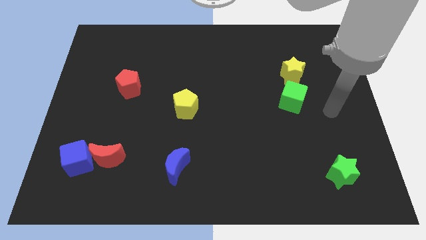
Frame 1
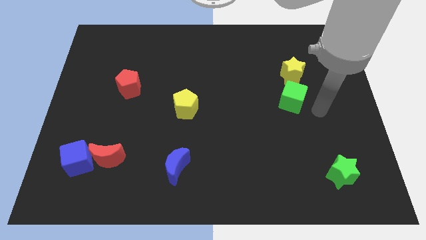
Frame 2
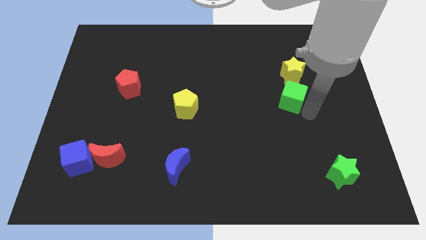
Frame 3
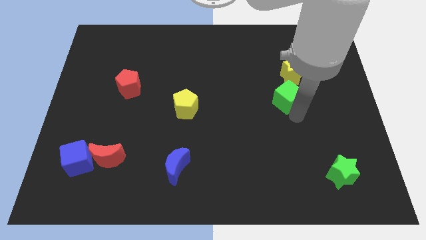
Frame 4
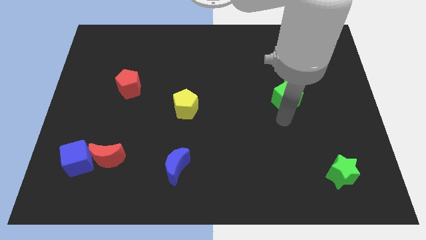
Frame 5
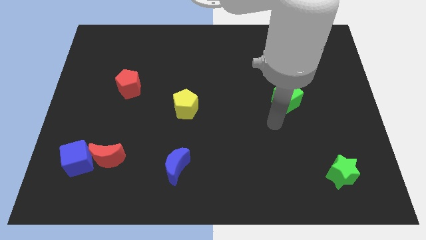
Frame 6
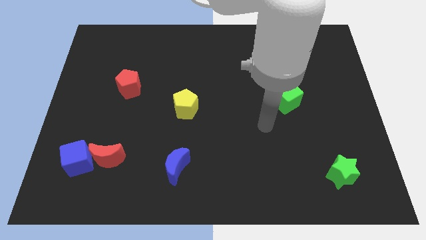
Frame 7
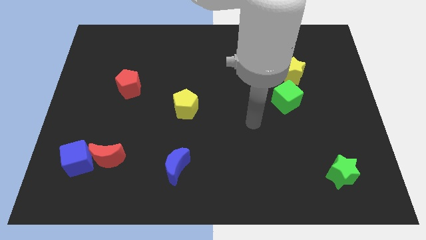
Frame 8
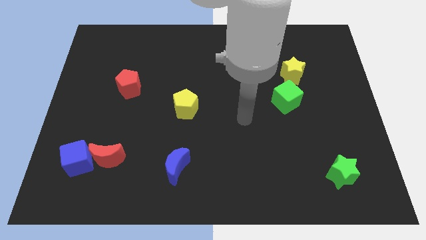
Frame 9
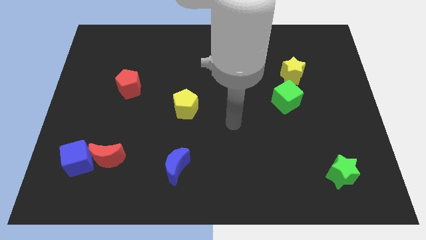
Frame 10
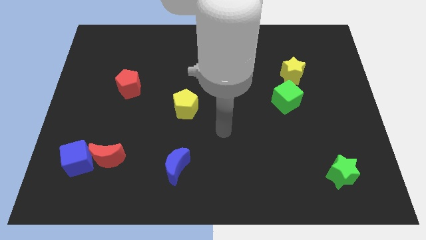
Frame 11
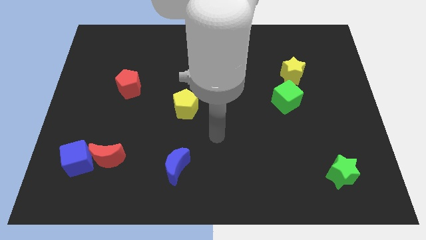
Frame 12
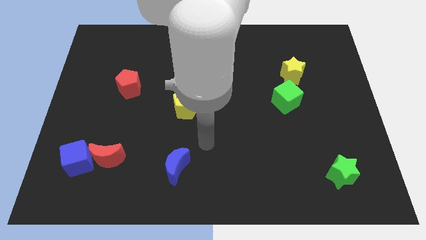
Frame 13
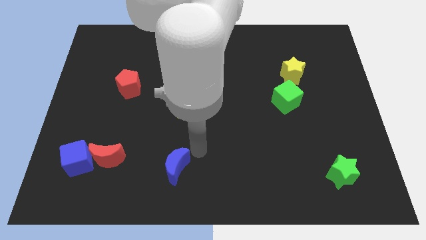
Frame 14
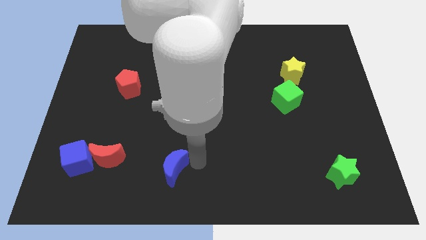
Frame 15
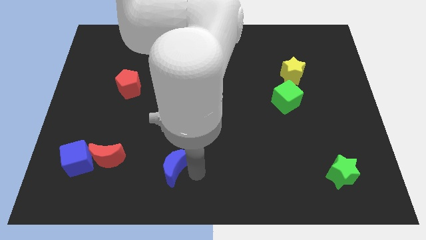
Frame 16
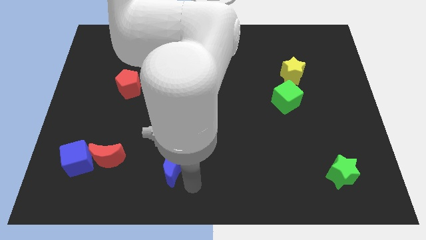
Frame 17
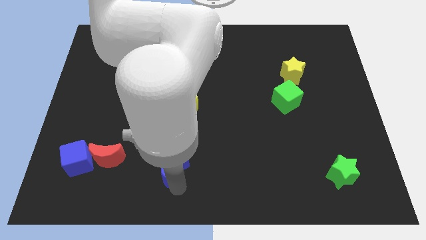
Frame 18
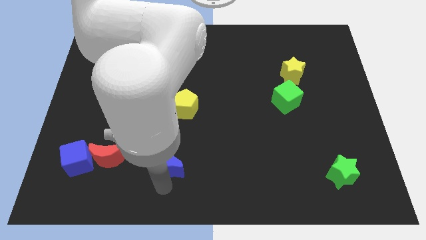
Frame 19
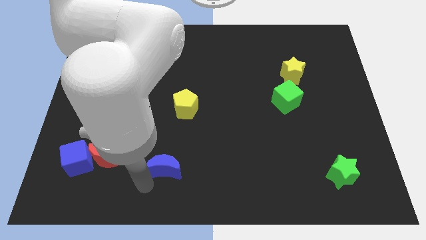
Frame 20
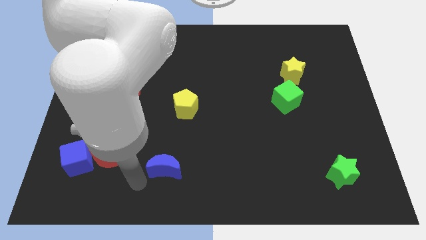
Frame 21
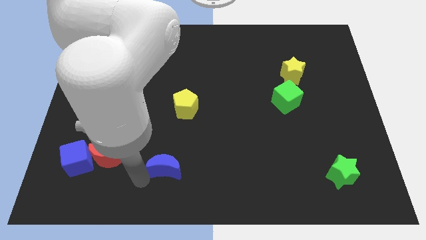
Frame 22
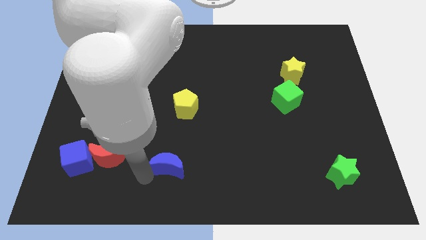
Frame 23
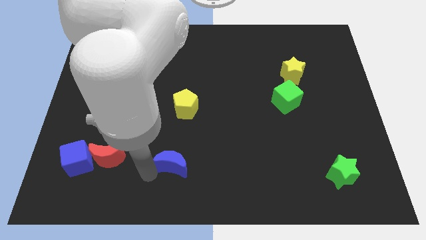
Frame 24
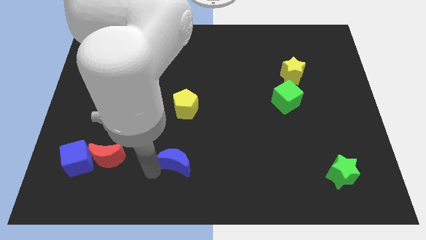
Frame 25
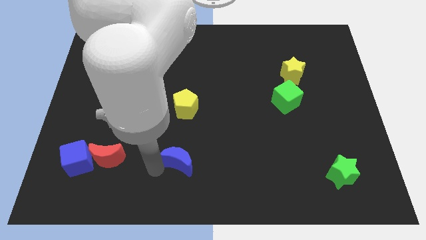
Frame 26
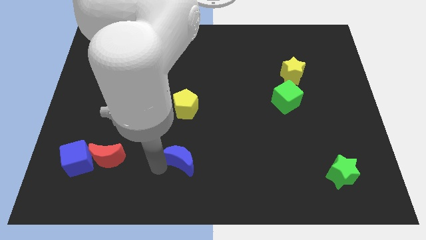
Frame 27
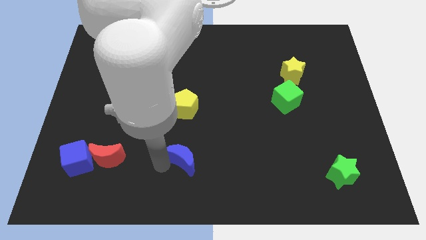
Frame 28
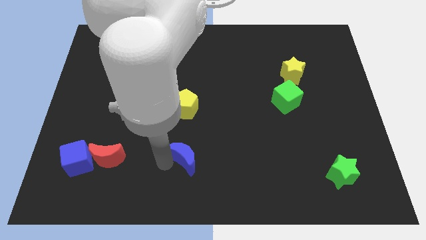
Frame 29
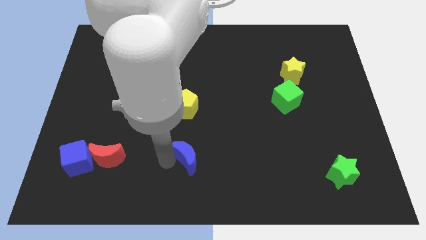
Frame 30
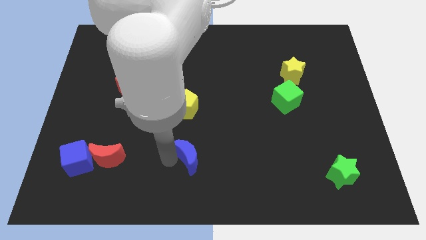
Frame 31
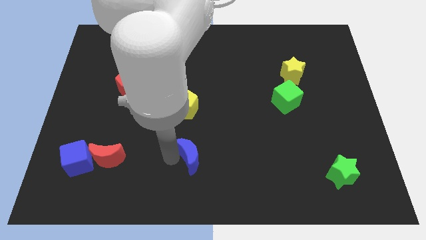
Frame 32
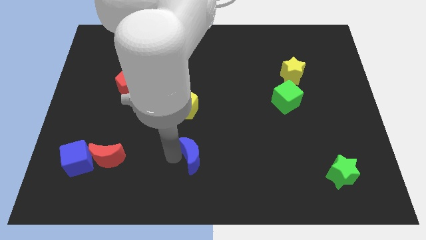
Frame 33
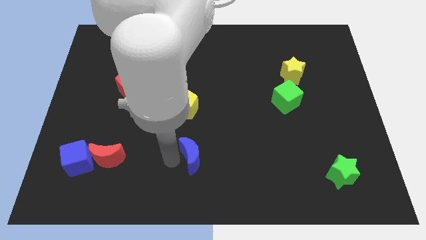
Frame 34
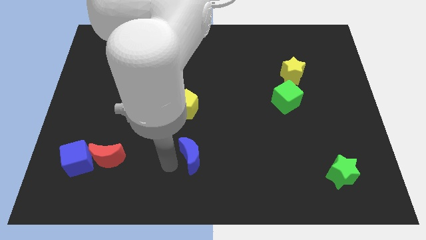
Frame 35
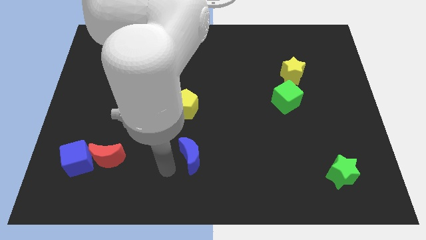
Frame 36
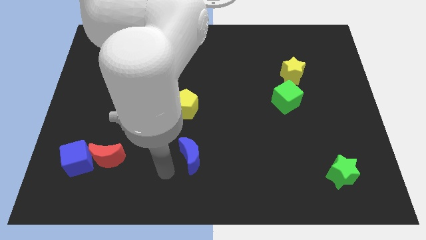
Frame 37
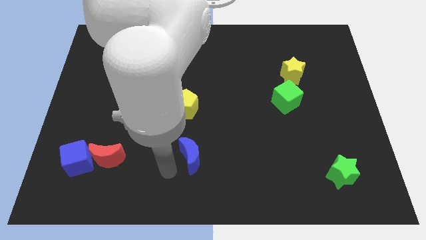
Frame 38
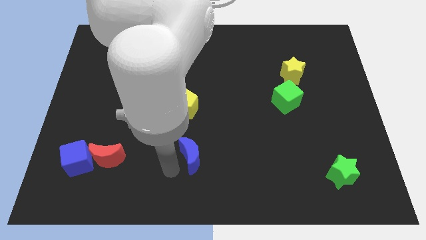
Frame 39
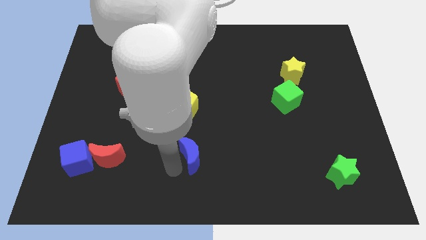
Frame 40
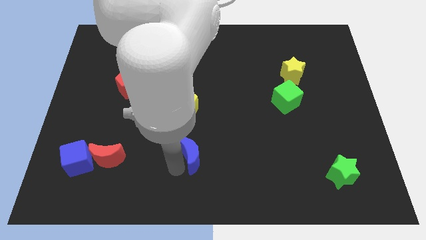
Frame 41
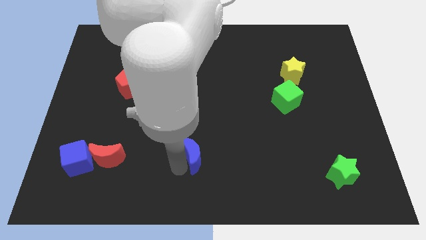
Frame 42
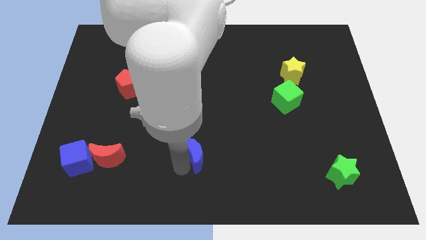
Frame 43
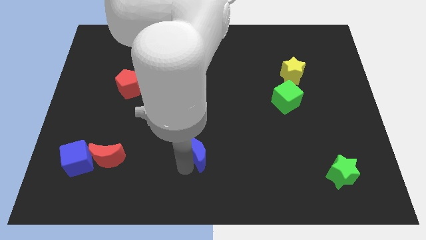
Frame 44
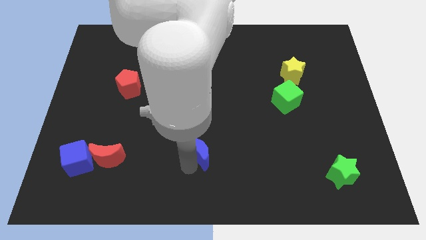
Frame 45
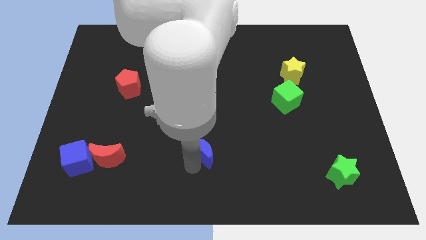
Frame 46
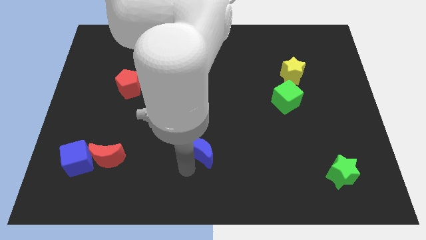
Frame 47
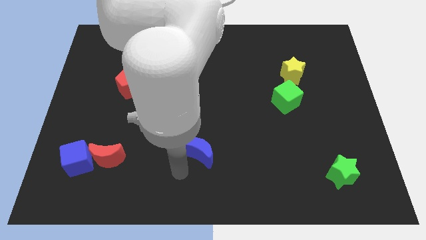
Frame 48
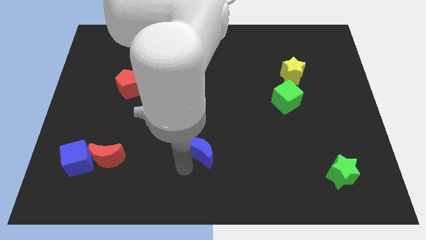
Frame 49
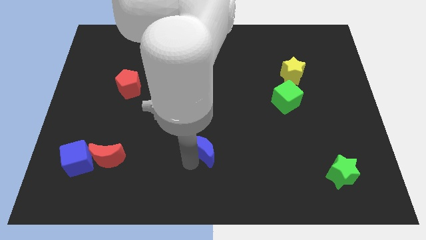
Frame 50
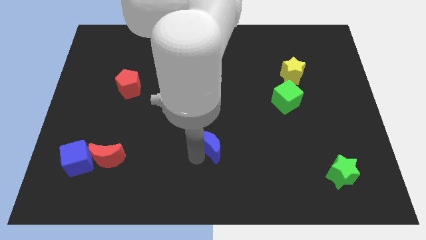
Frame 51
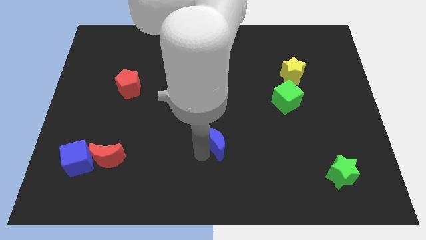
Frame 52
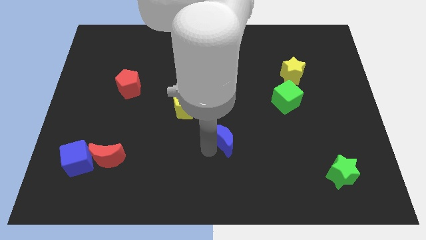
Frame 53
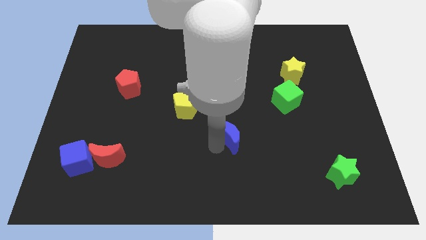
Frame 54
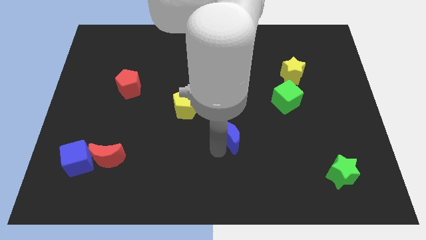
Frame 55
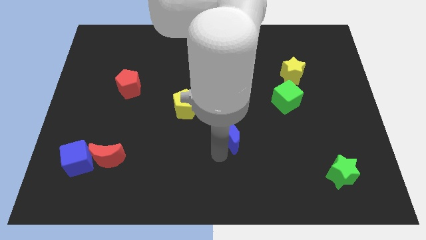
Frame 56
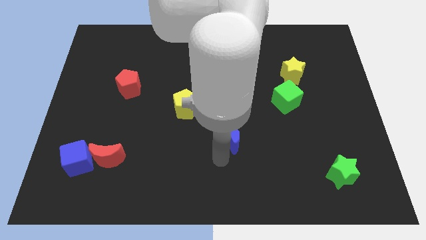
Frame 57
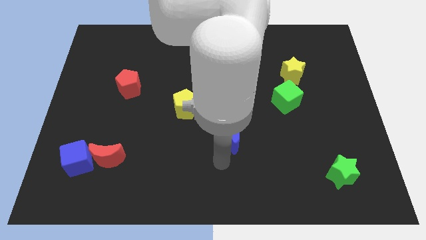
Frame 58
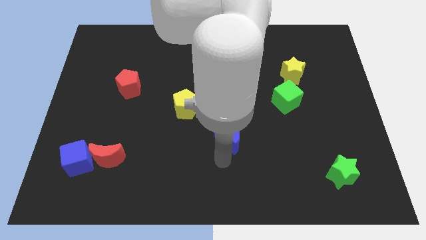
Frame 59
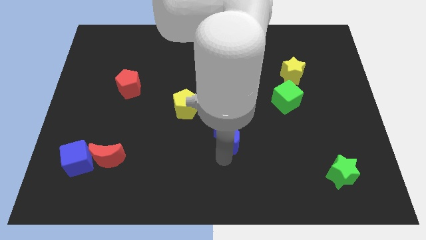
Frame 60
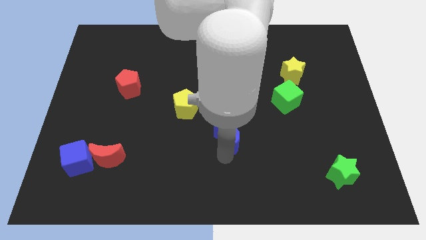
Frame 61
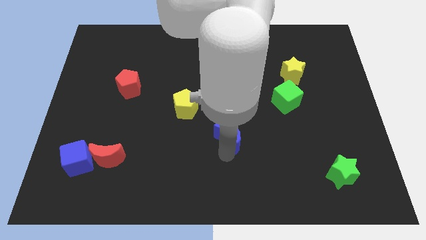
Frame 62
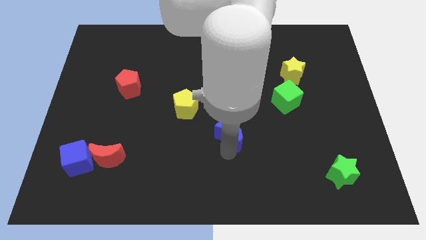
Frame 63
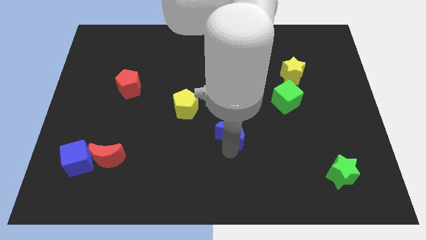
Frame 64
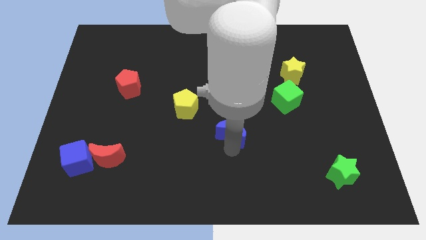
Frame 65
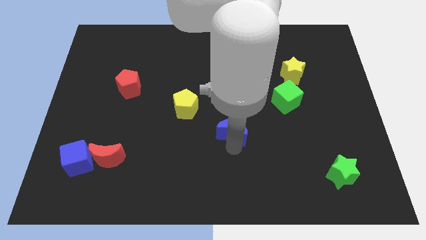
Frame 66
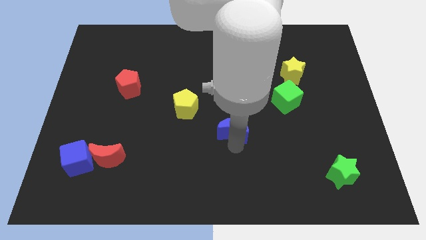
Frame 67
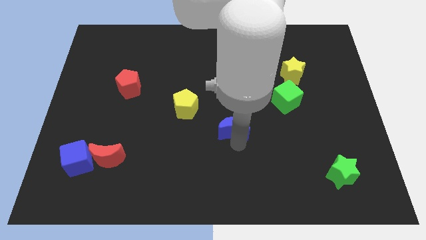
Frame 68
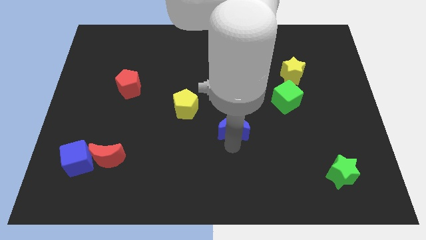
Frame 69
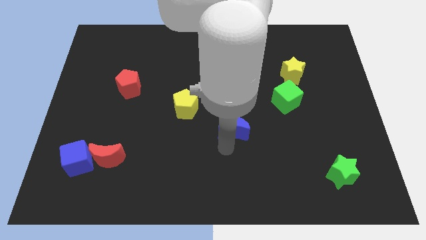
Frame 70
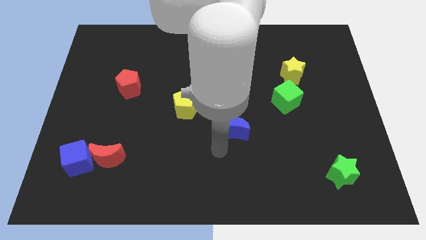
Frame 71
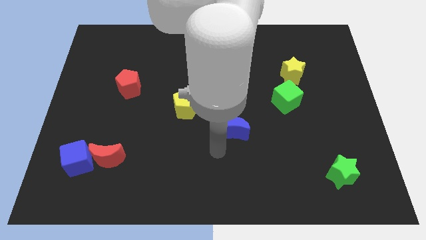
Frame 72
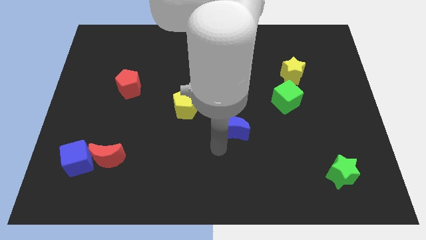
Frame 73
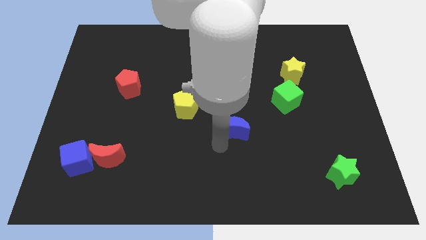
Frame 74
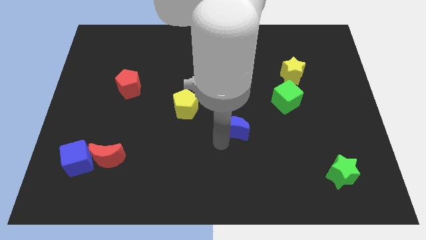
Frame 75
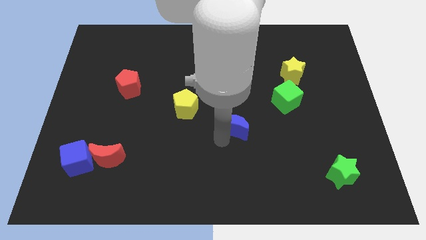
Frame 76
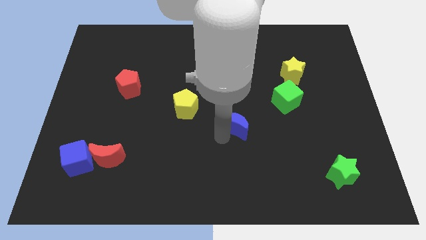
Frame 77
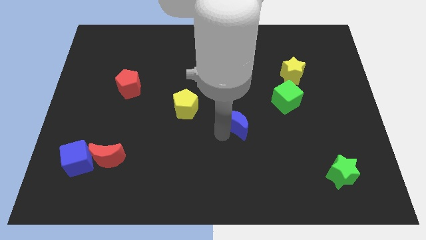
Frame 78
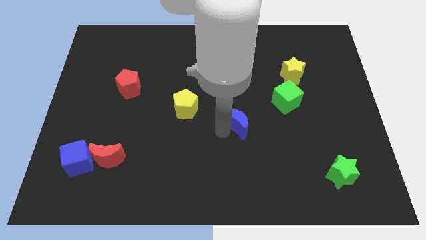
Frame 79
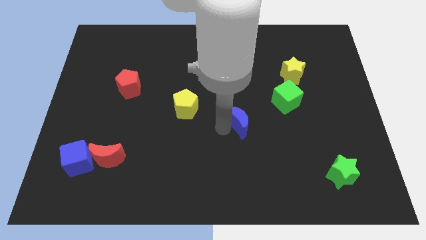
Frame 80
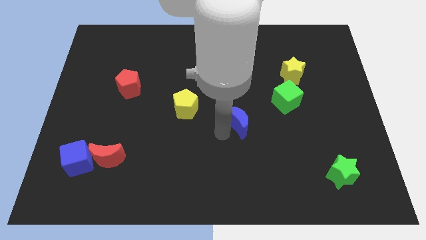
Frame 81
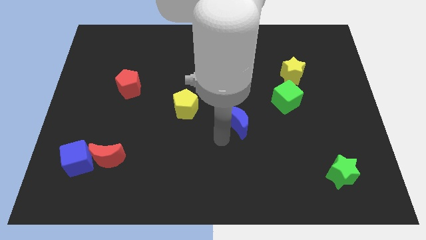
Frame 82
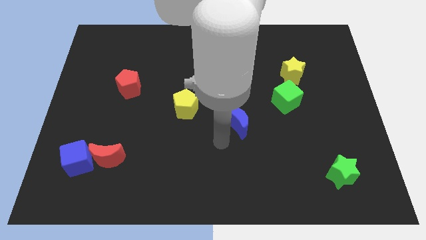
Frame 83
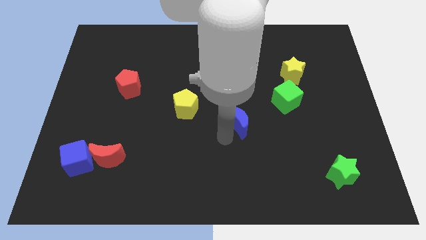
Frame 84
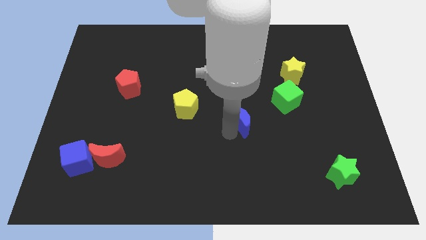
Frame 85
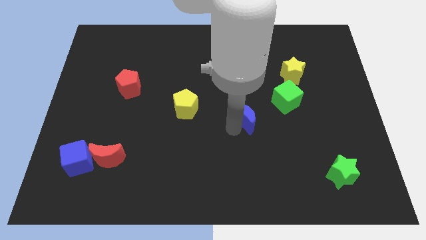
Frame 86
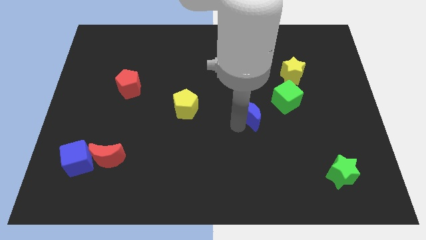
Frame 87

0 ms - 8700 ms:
move the blue moon upwards and right diagonally
